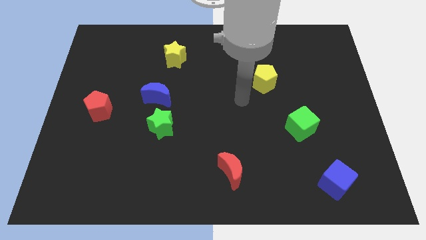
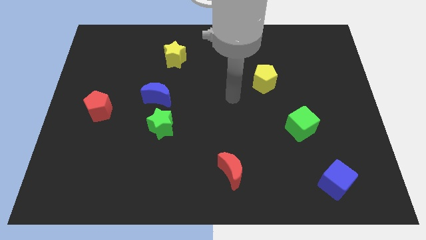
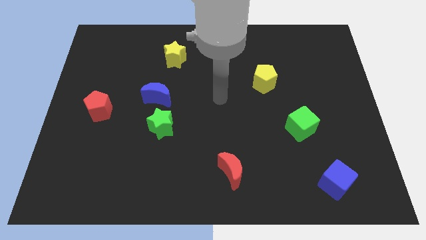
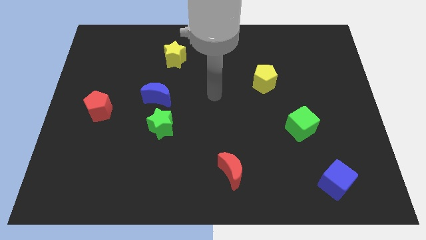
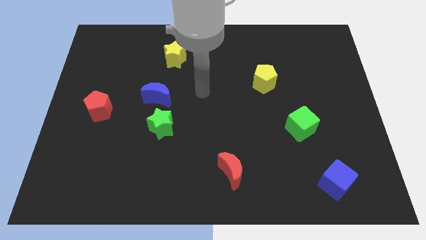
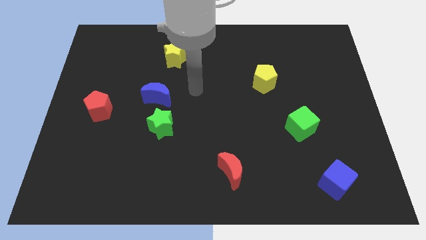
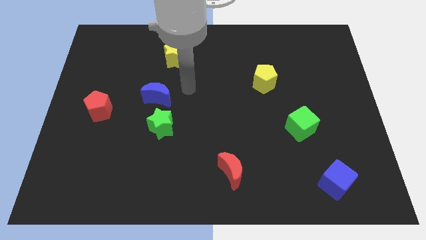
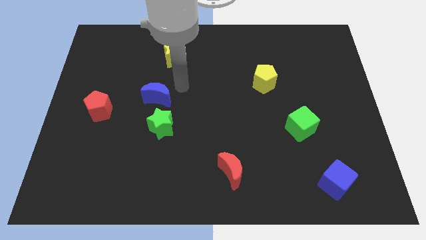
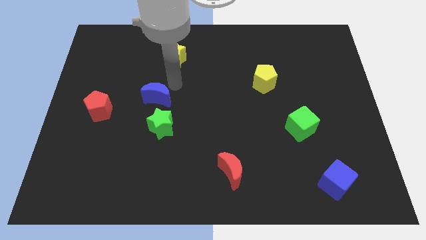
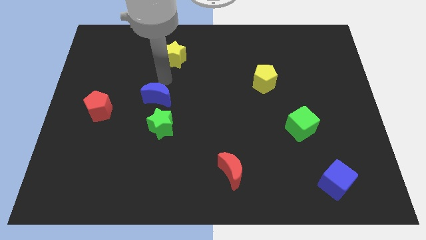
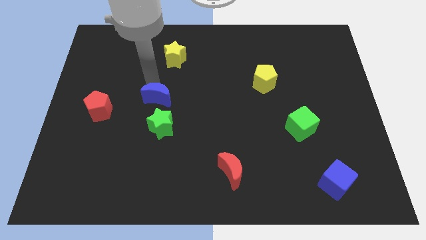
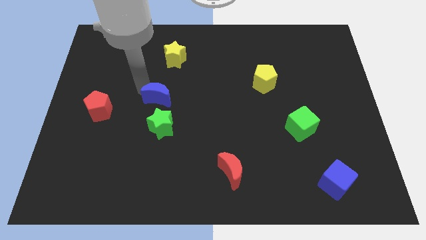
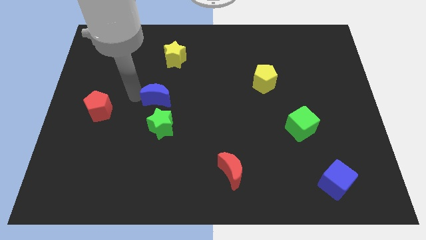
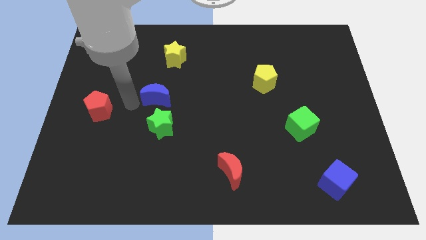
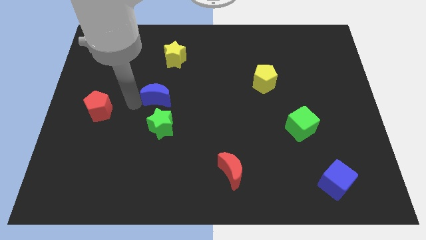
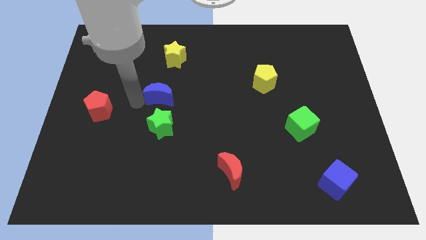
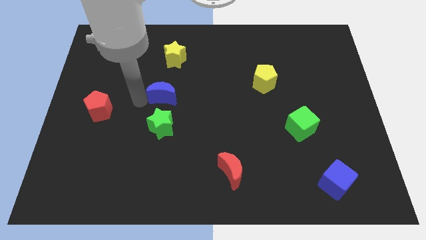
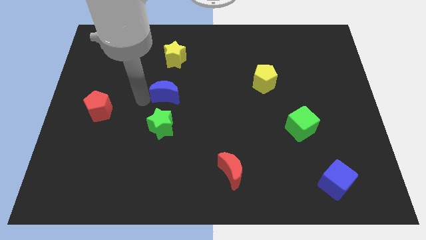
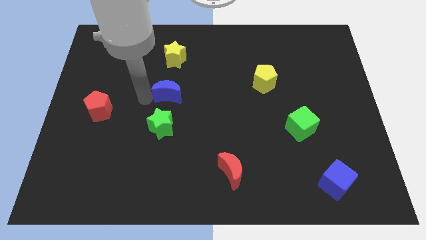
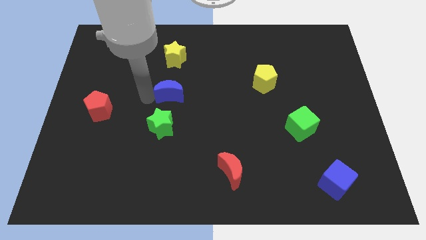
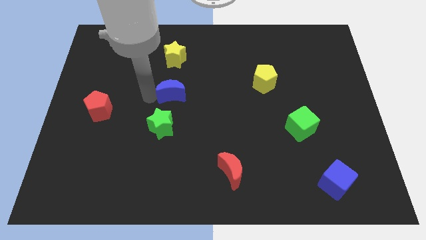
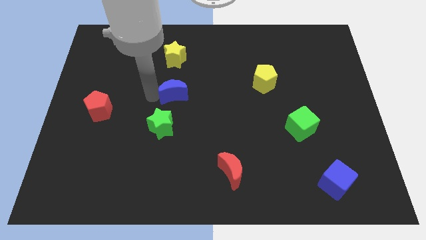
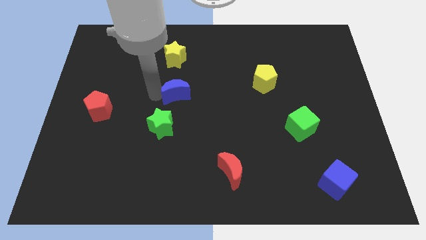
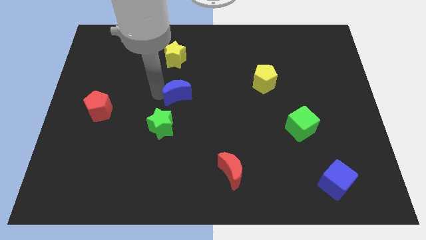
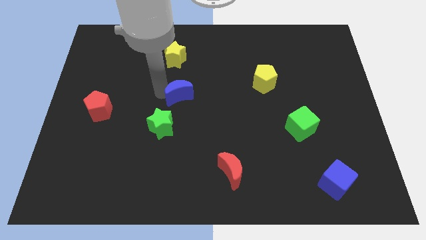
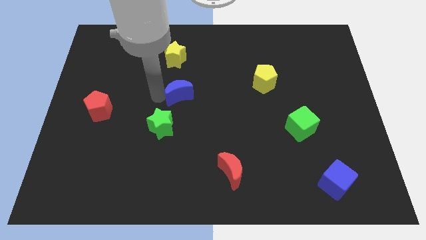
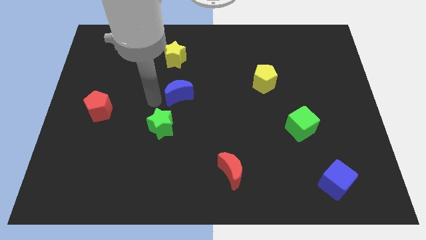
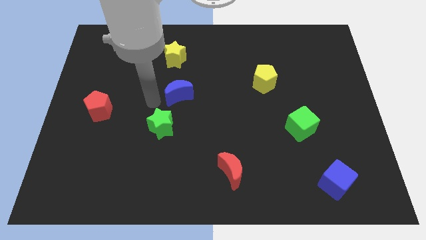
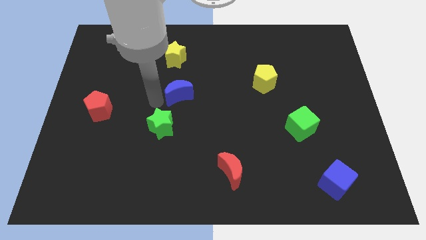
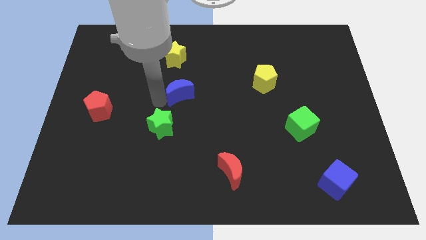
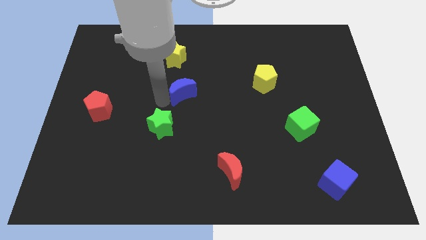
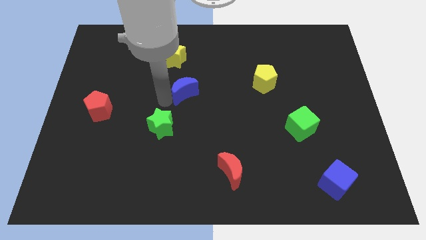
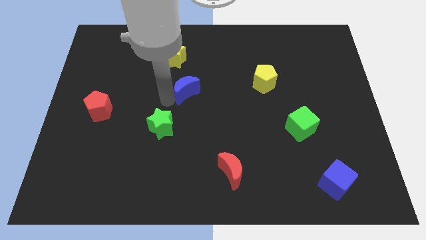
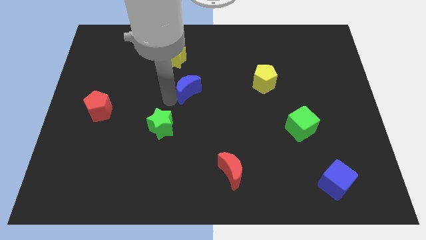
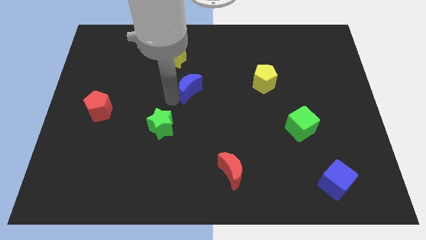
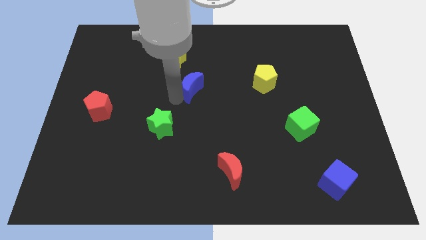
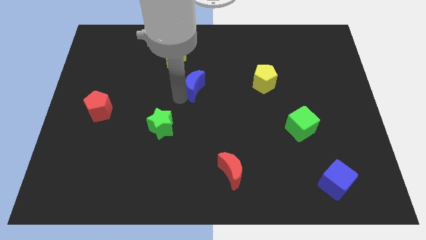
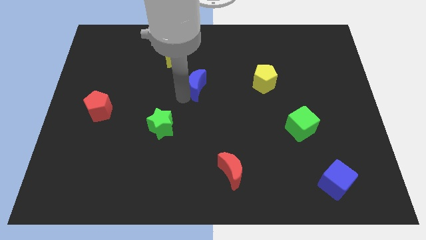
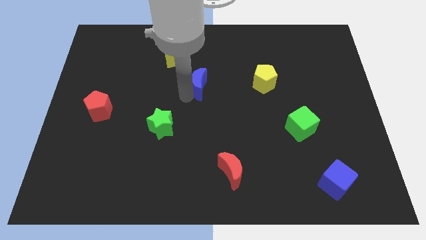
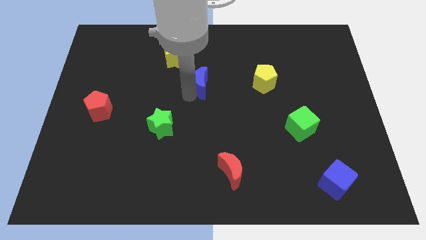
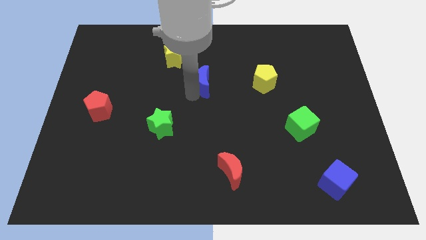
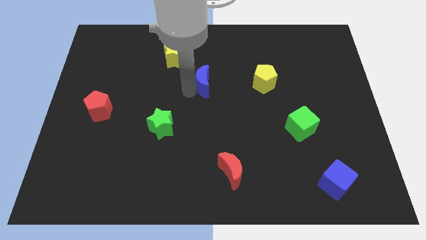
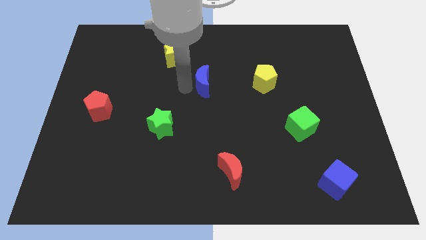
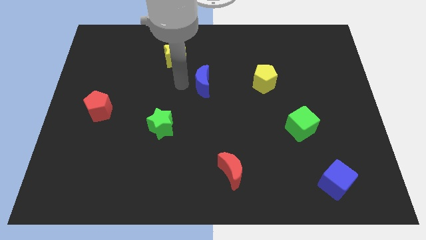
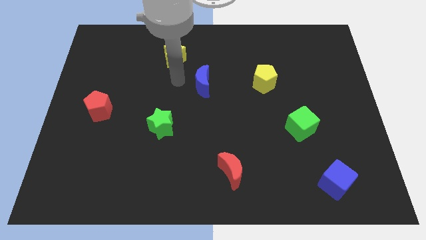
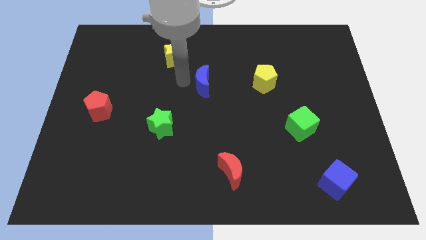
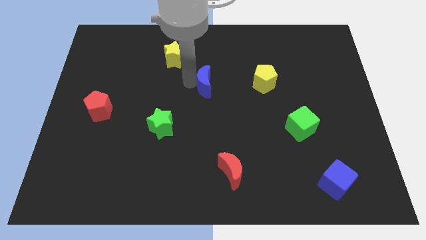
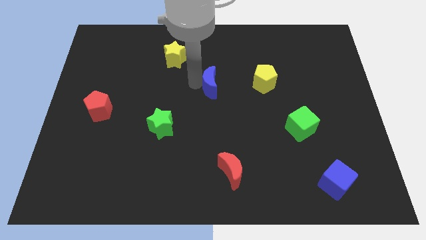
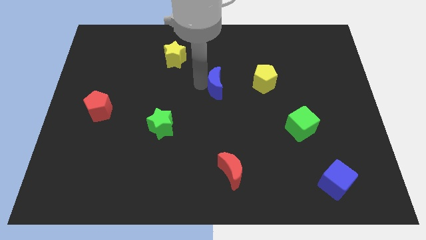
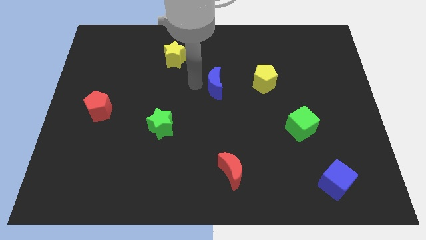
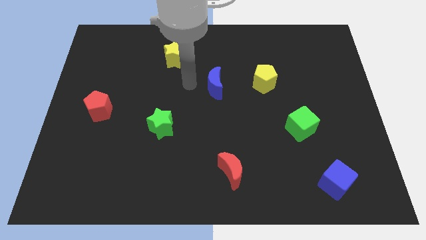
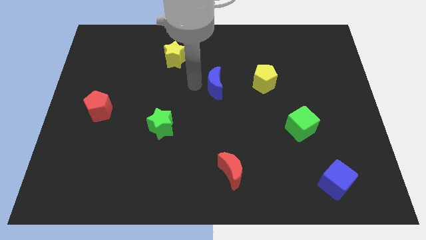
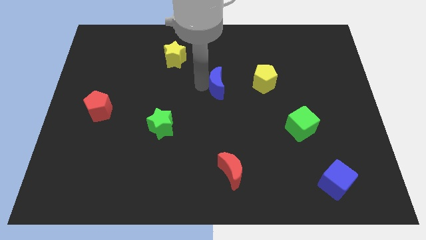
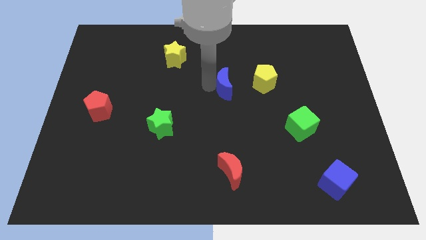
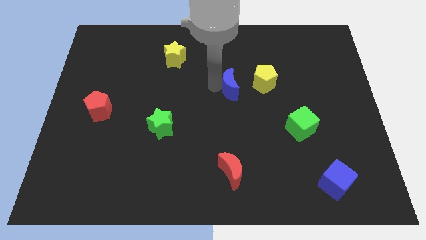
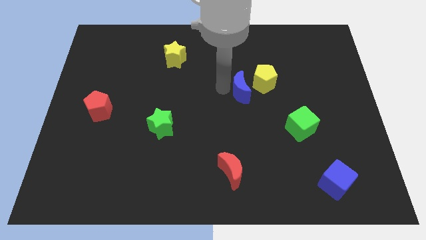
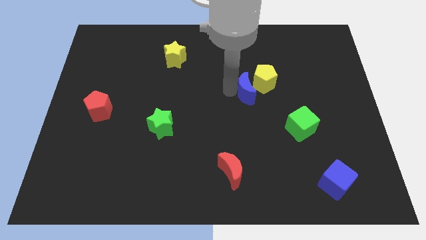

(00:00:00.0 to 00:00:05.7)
push the blue moon to the yellow pentagon

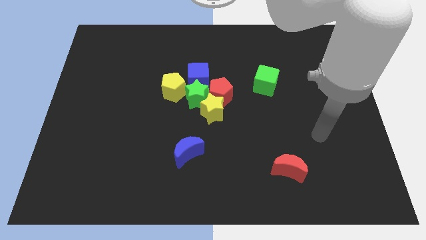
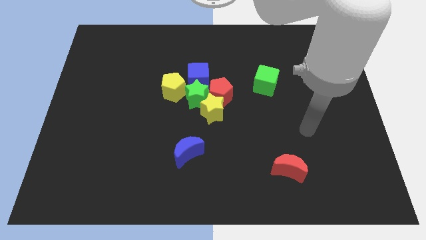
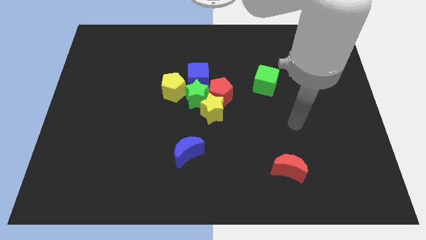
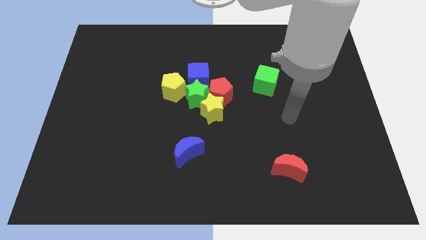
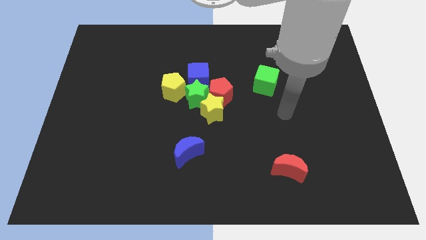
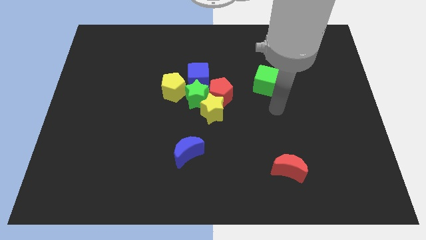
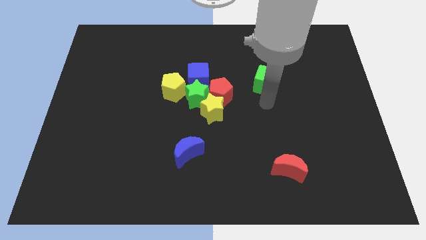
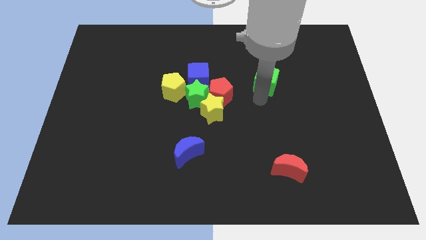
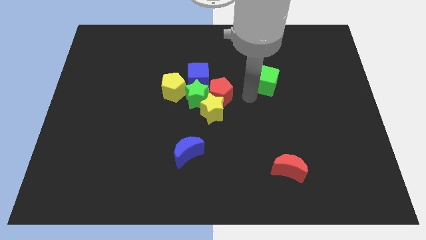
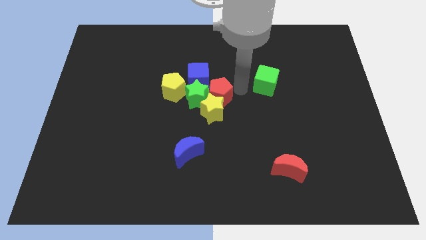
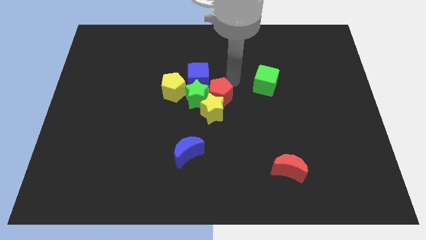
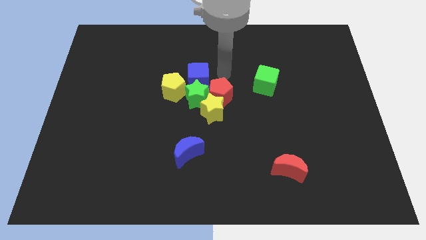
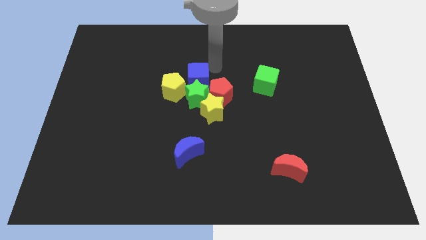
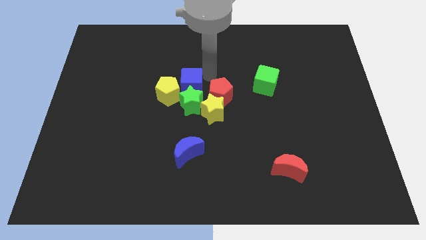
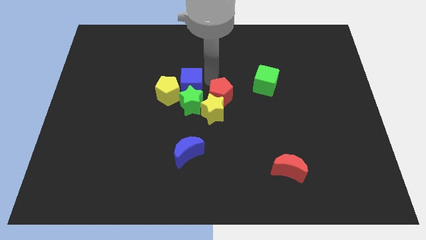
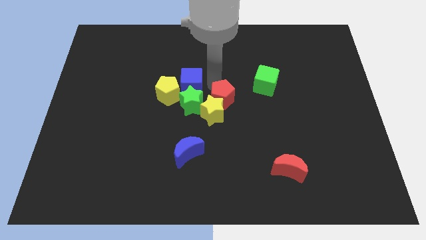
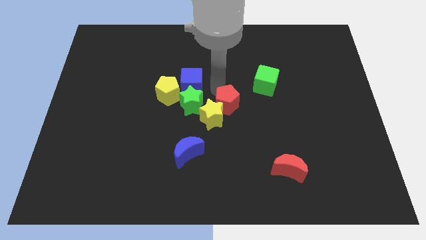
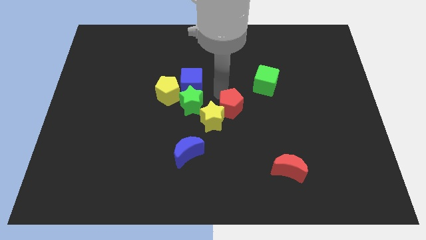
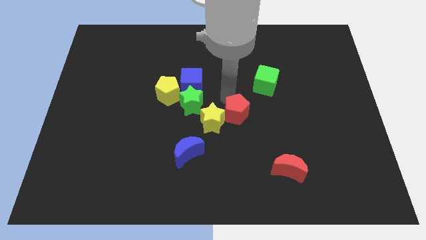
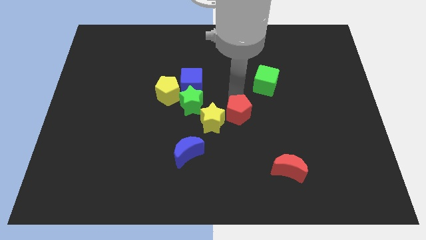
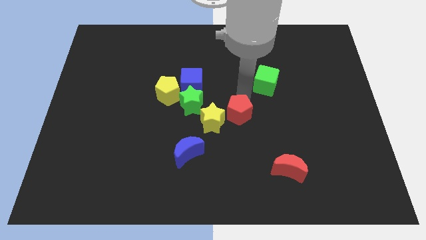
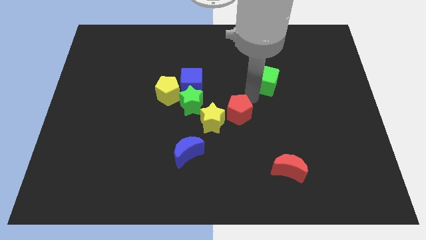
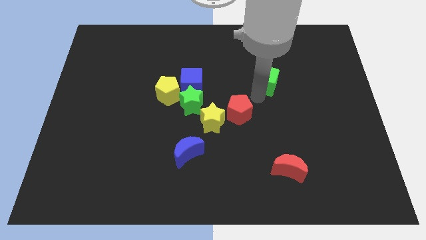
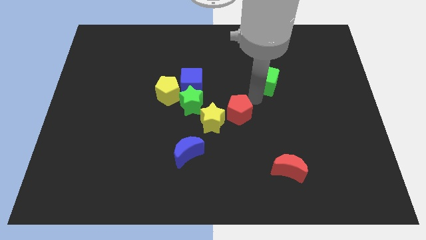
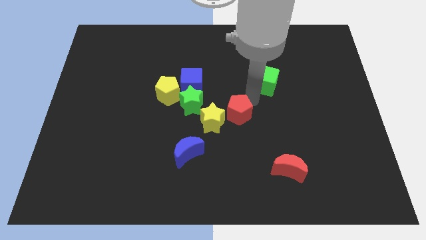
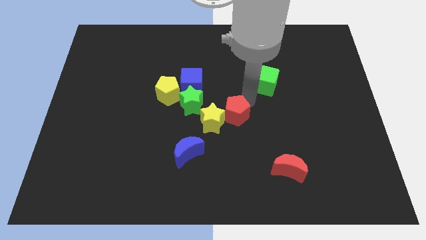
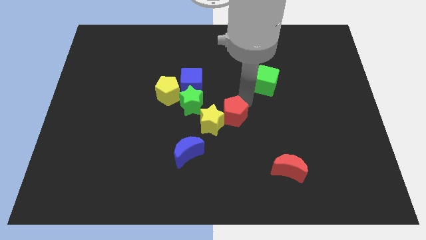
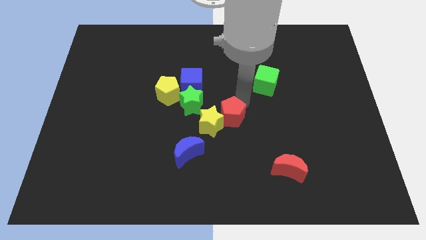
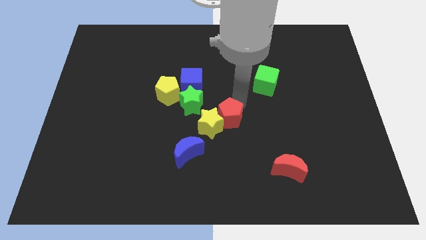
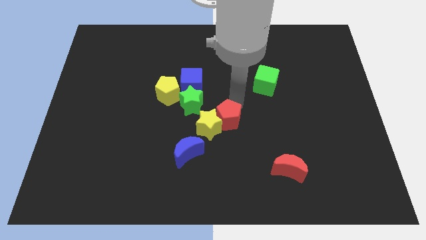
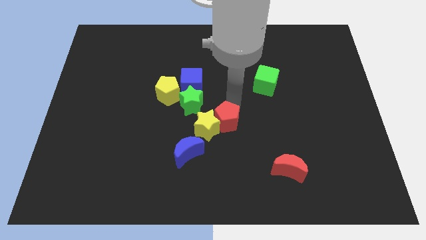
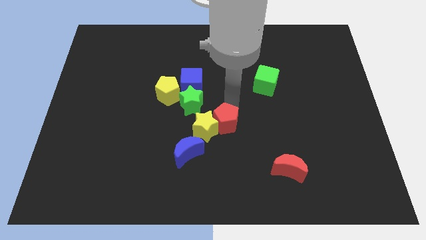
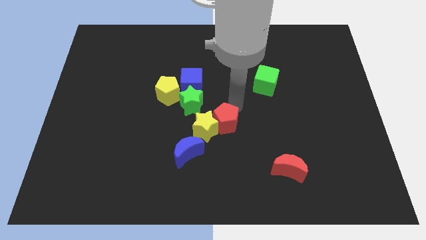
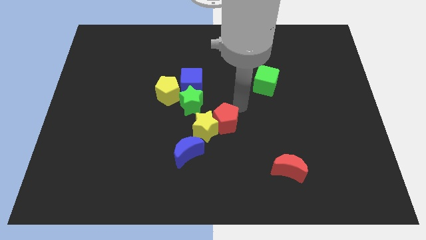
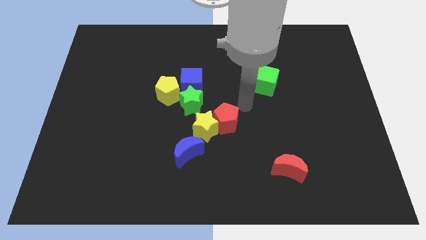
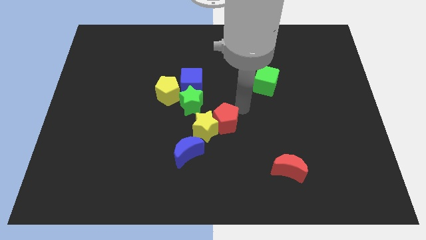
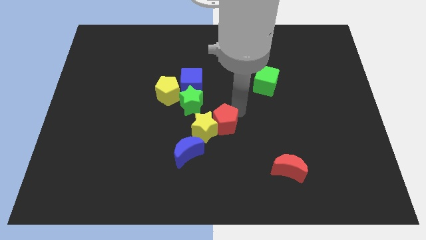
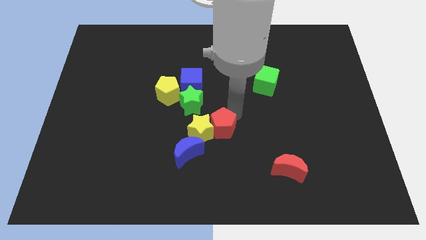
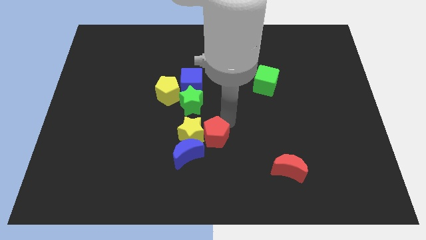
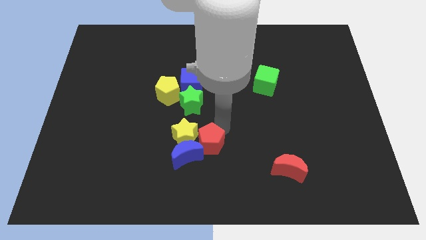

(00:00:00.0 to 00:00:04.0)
move the red pentagon close to the blue moon
